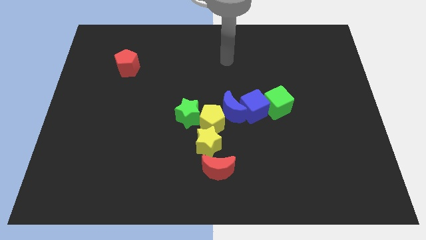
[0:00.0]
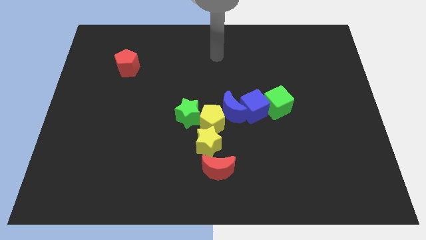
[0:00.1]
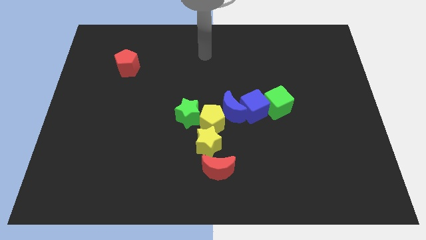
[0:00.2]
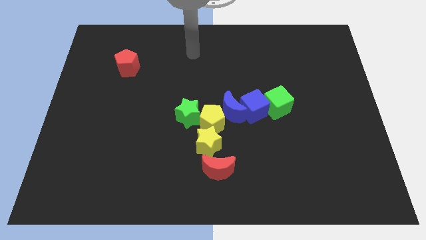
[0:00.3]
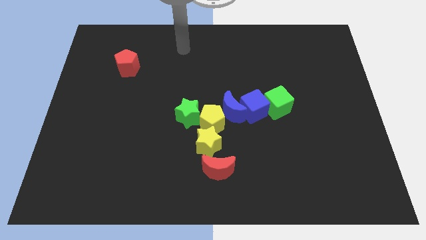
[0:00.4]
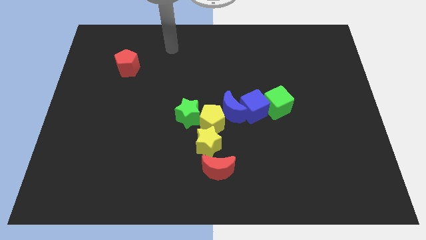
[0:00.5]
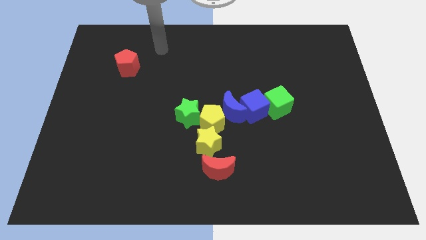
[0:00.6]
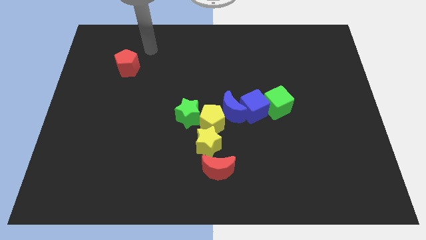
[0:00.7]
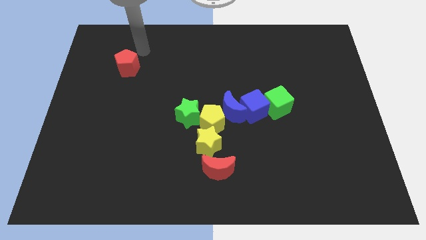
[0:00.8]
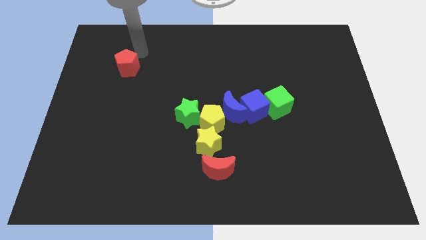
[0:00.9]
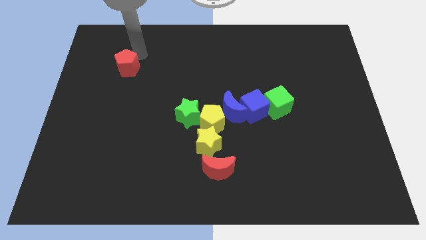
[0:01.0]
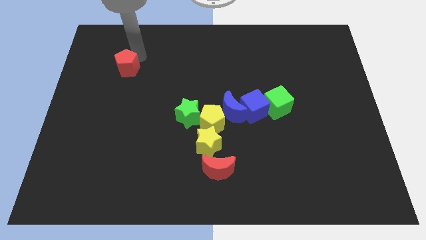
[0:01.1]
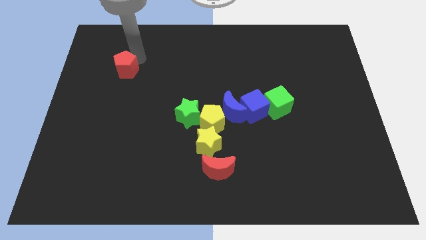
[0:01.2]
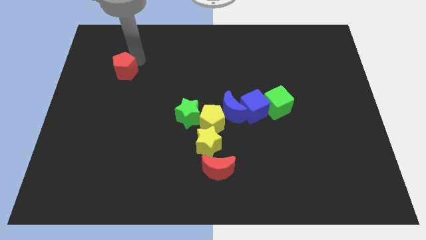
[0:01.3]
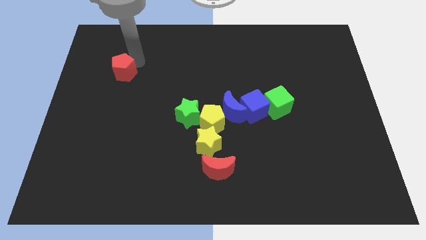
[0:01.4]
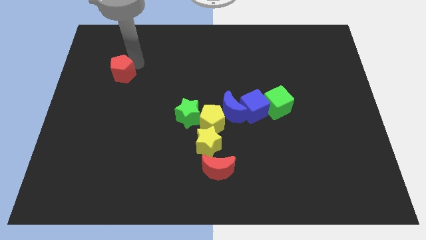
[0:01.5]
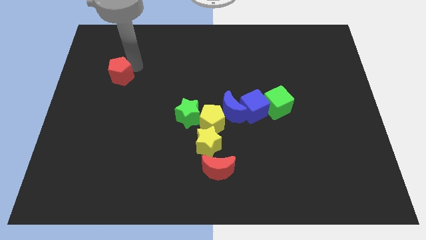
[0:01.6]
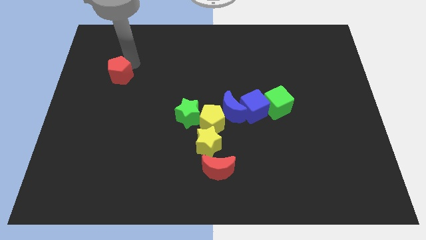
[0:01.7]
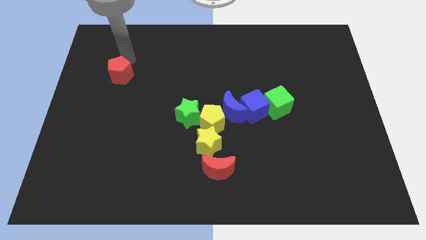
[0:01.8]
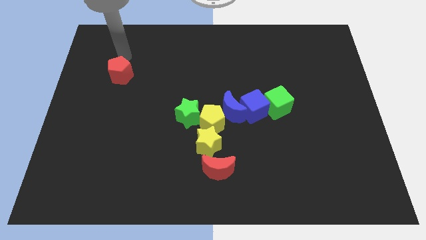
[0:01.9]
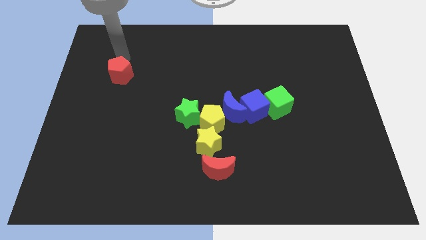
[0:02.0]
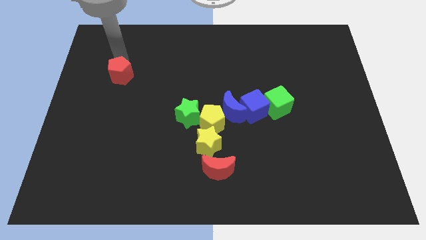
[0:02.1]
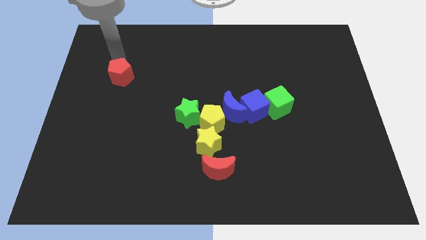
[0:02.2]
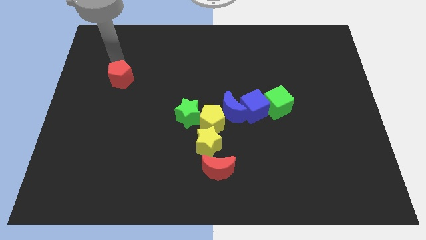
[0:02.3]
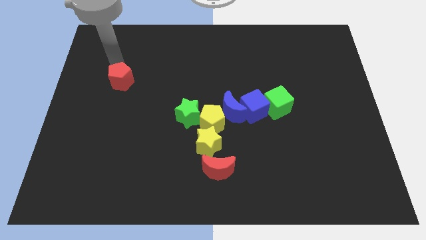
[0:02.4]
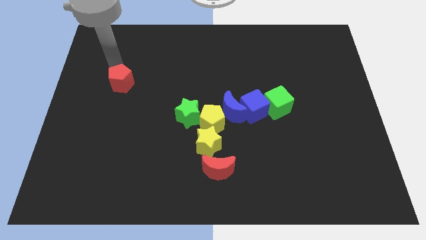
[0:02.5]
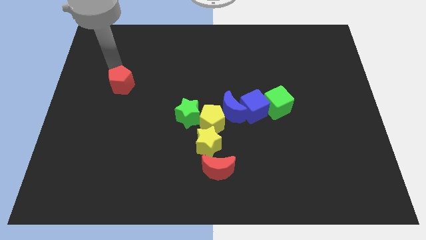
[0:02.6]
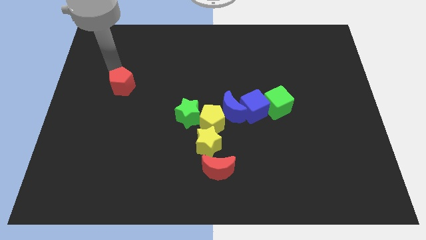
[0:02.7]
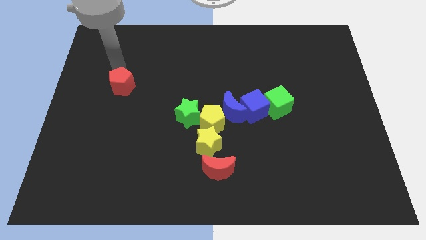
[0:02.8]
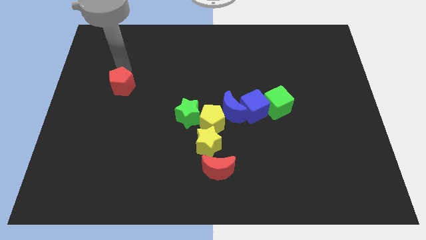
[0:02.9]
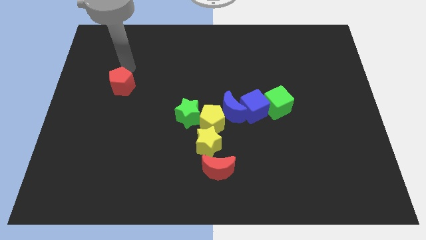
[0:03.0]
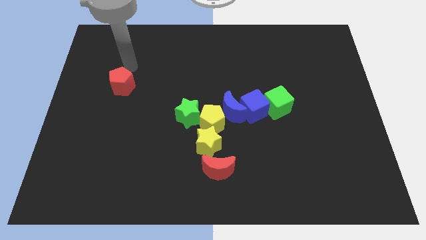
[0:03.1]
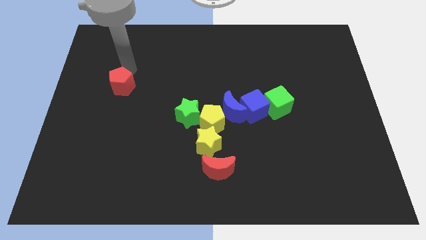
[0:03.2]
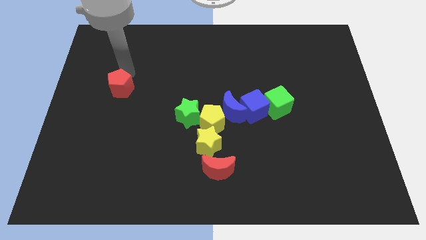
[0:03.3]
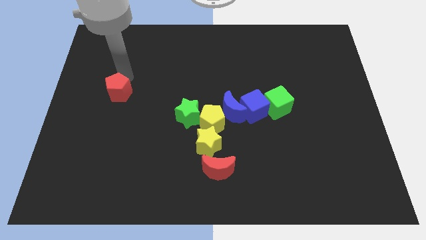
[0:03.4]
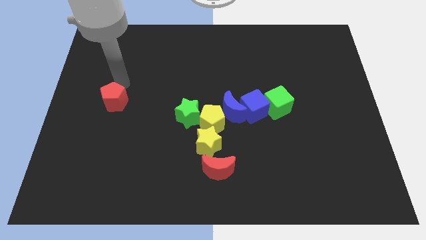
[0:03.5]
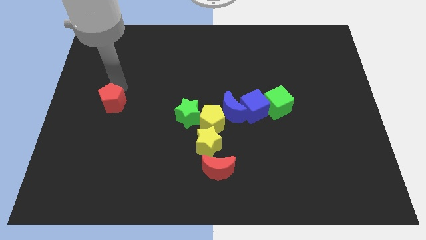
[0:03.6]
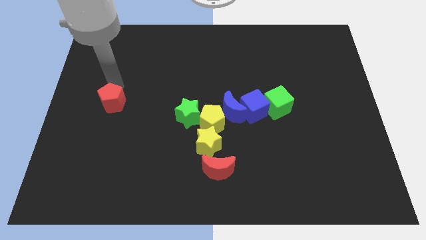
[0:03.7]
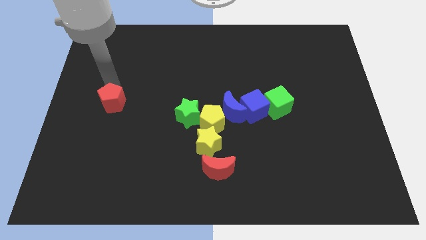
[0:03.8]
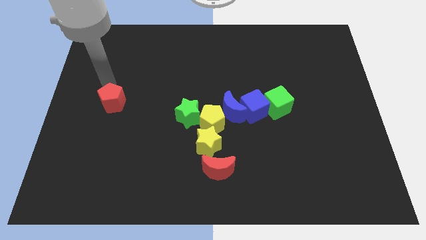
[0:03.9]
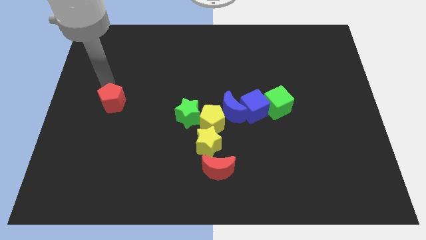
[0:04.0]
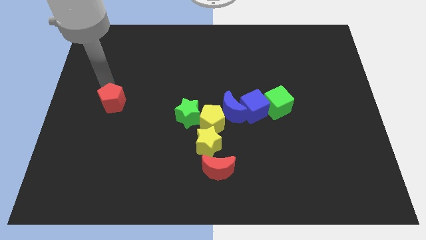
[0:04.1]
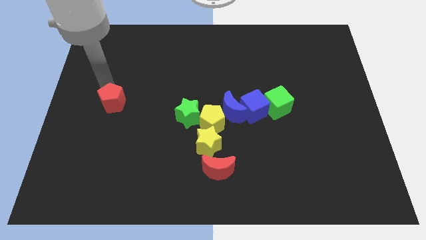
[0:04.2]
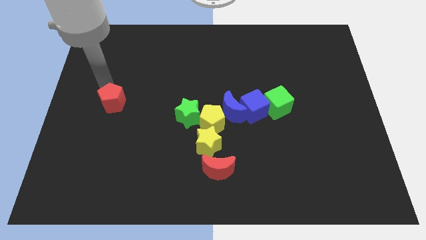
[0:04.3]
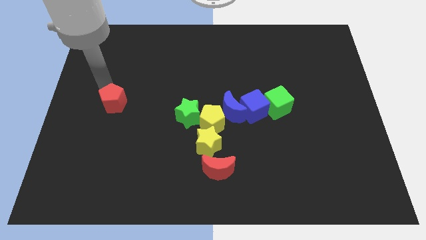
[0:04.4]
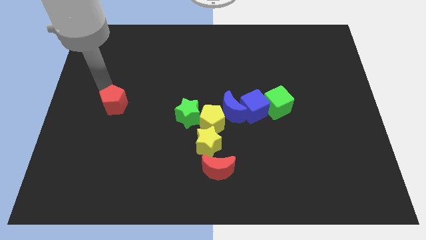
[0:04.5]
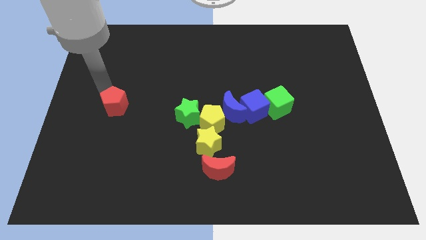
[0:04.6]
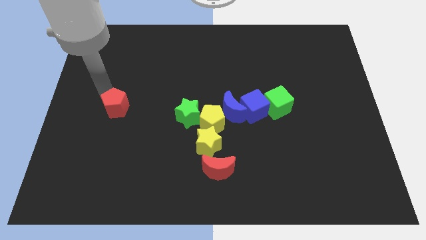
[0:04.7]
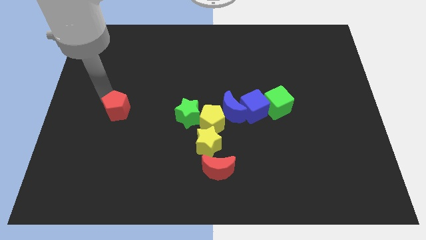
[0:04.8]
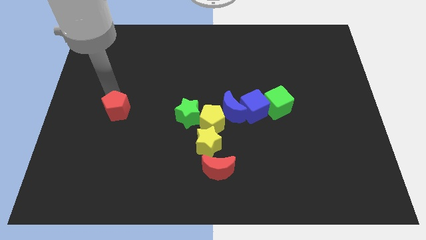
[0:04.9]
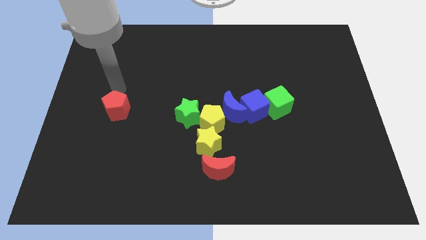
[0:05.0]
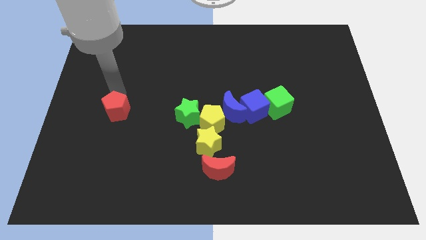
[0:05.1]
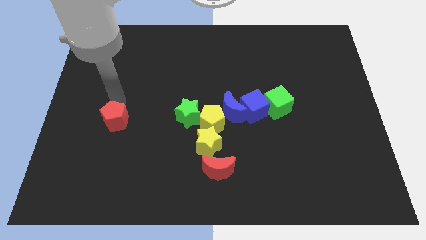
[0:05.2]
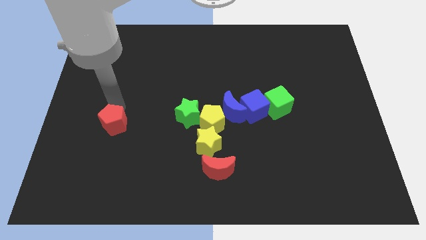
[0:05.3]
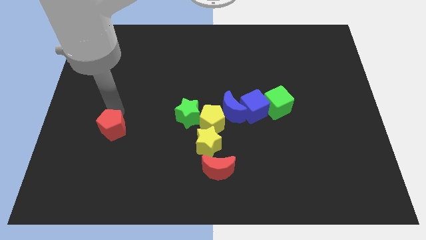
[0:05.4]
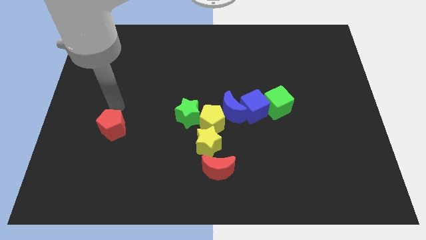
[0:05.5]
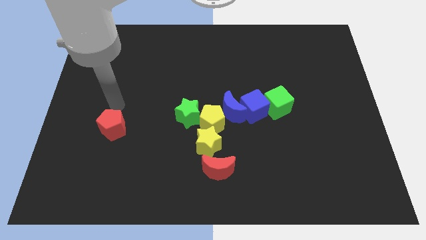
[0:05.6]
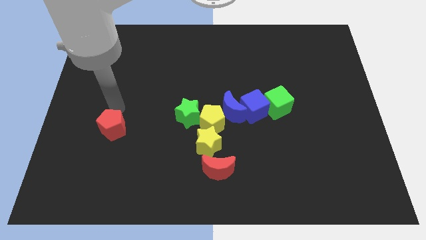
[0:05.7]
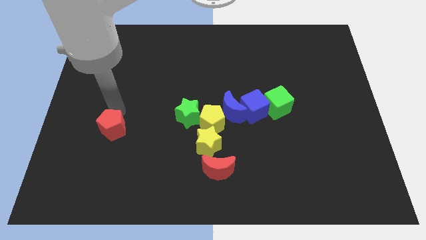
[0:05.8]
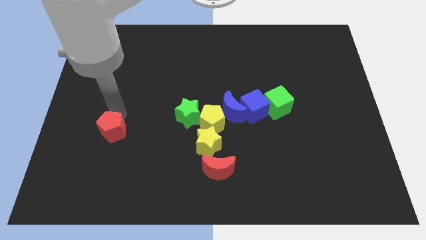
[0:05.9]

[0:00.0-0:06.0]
push the red pentagon down

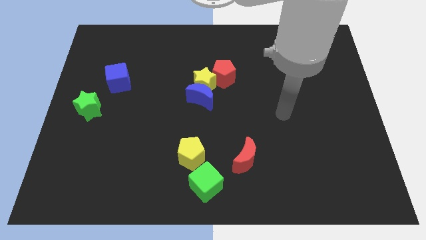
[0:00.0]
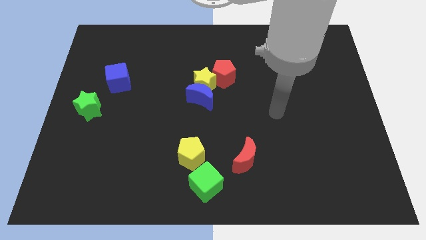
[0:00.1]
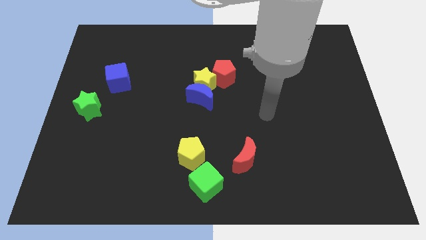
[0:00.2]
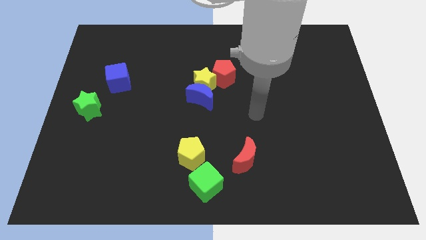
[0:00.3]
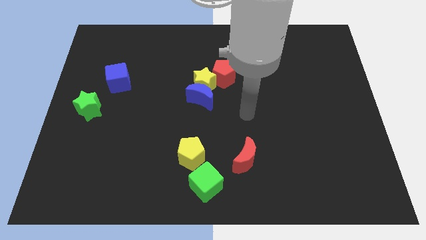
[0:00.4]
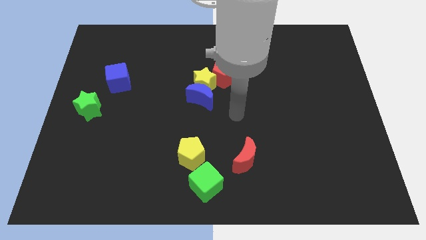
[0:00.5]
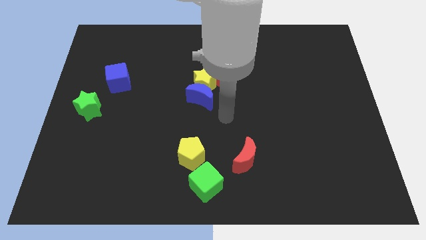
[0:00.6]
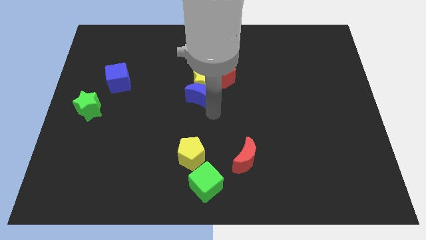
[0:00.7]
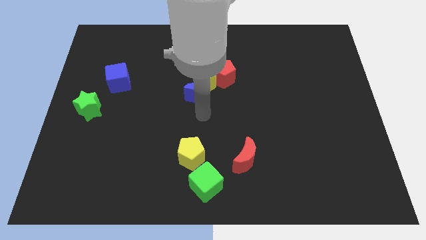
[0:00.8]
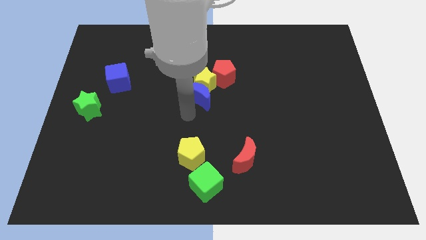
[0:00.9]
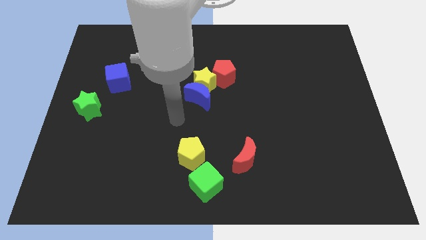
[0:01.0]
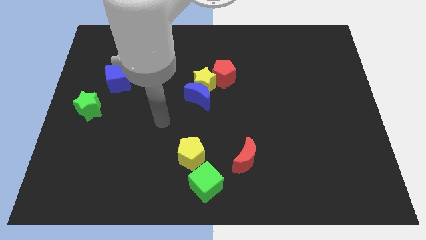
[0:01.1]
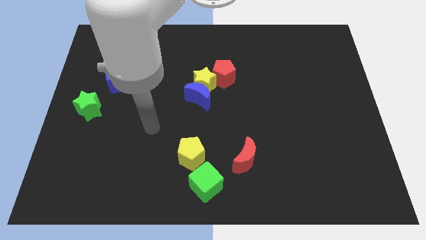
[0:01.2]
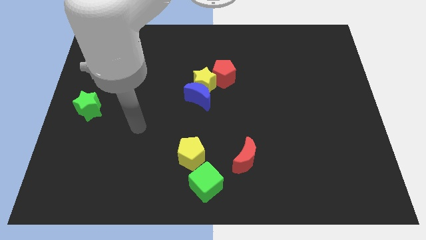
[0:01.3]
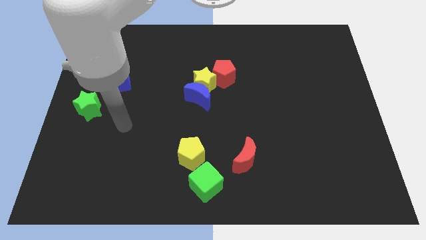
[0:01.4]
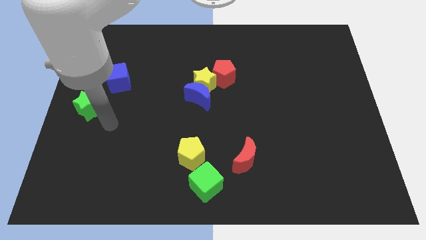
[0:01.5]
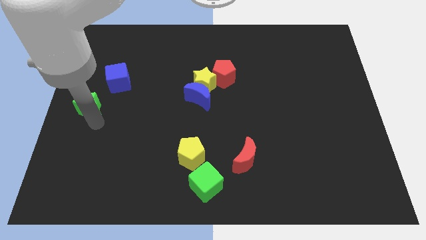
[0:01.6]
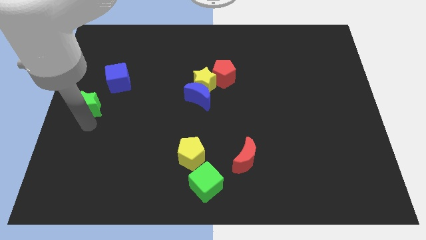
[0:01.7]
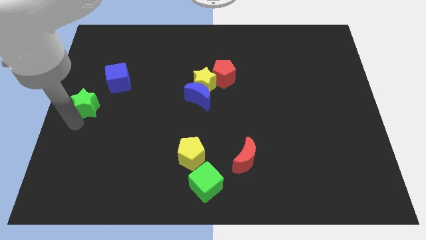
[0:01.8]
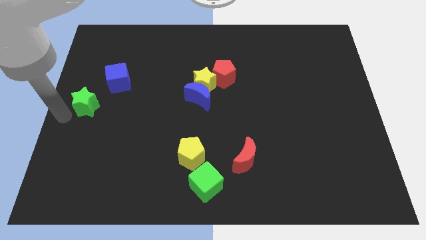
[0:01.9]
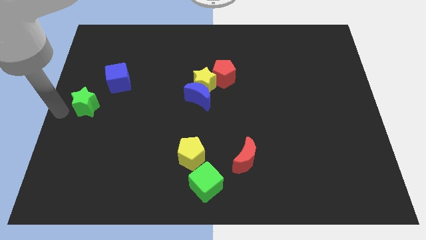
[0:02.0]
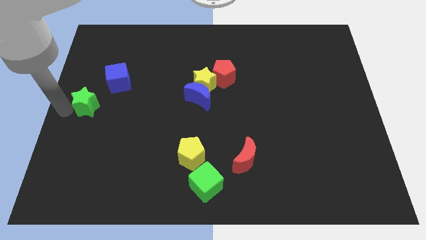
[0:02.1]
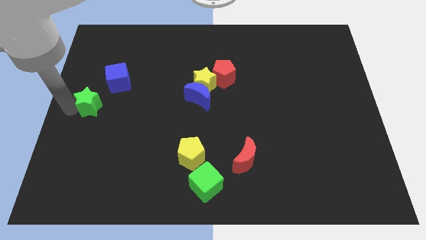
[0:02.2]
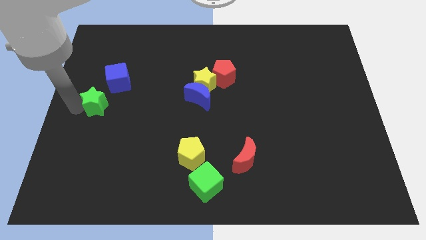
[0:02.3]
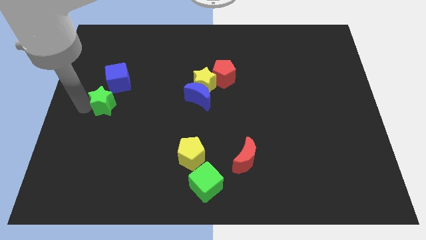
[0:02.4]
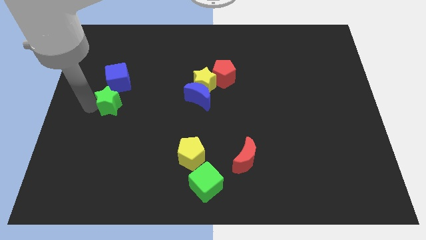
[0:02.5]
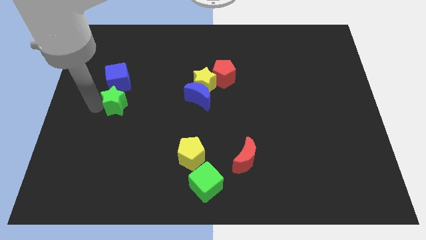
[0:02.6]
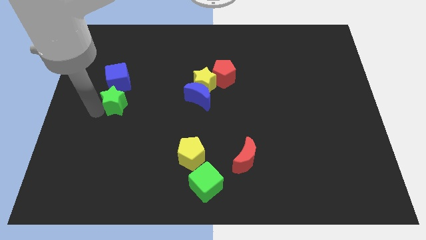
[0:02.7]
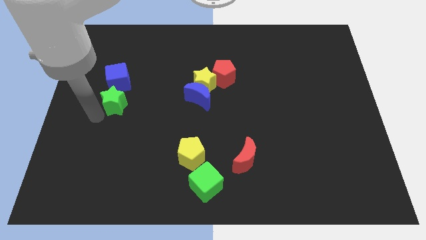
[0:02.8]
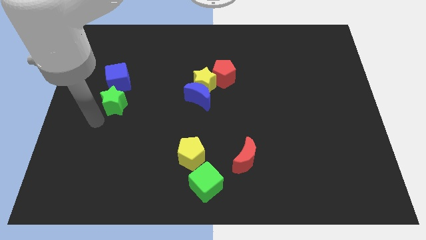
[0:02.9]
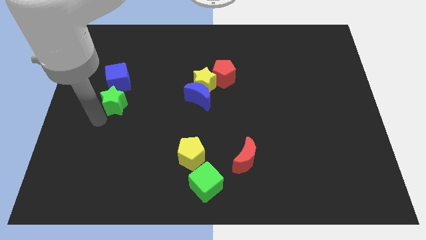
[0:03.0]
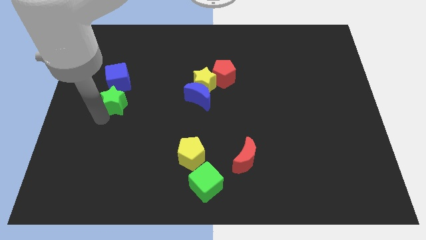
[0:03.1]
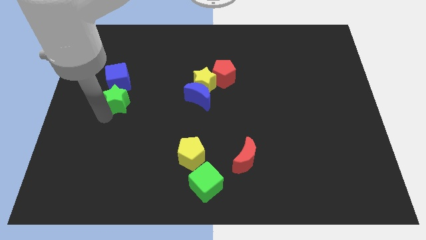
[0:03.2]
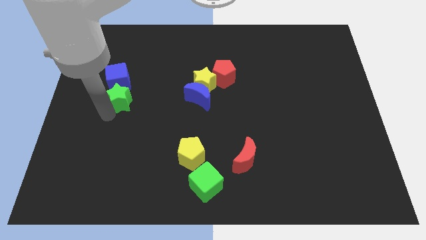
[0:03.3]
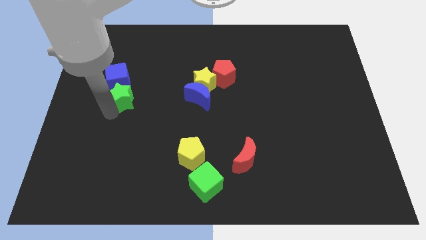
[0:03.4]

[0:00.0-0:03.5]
push the green star upwards and to the right diagonally a little
